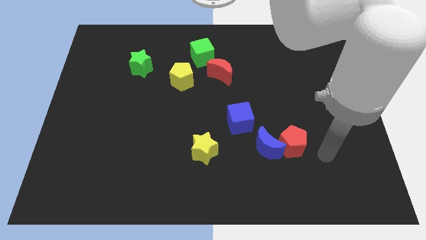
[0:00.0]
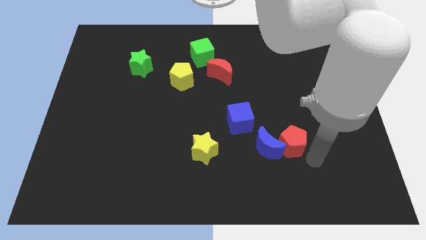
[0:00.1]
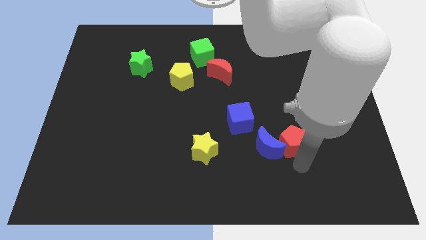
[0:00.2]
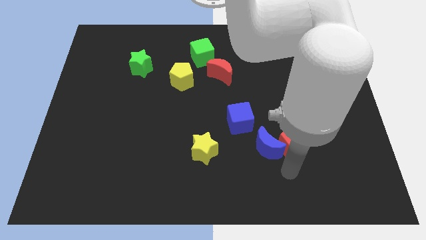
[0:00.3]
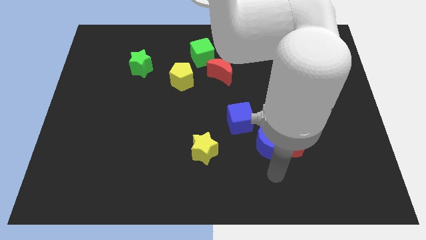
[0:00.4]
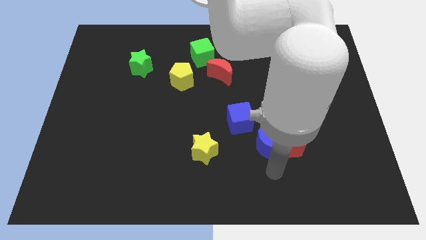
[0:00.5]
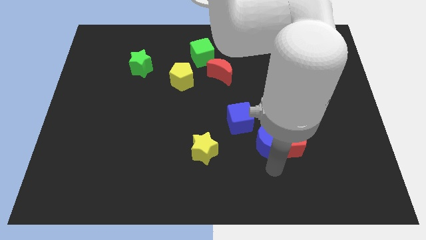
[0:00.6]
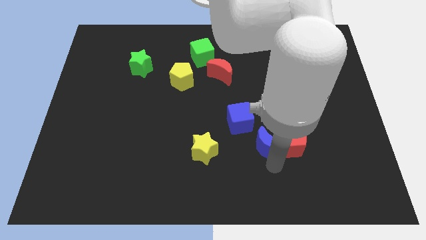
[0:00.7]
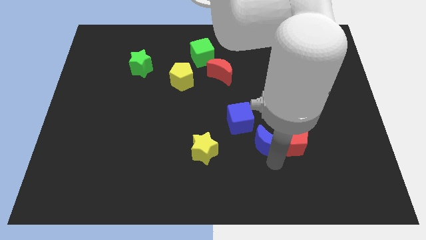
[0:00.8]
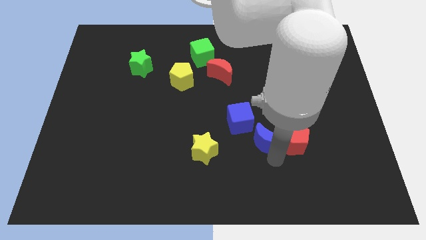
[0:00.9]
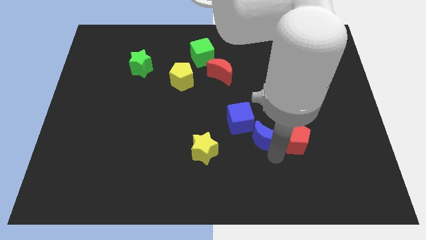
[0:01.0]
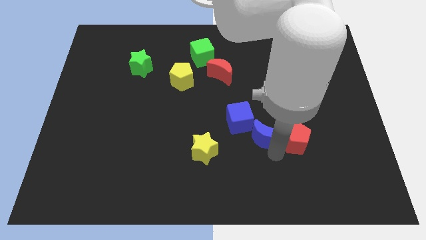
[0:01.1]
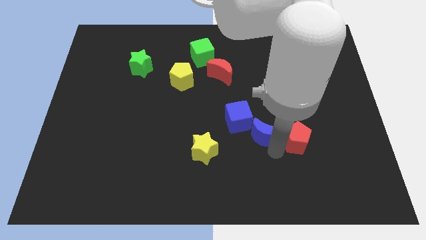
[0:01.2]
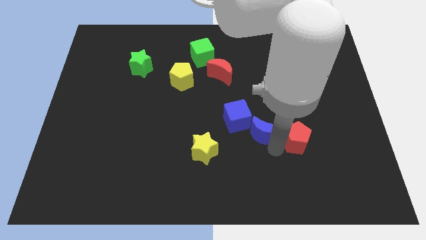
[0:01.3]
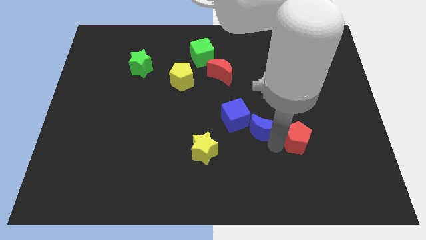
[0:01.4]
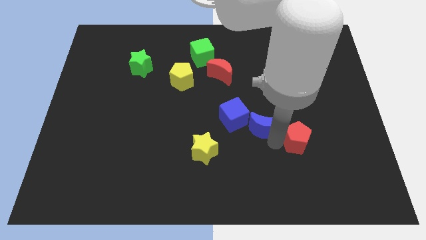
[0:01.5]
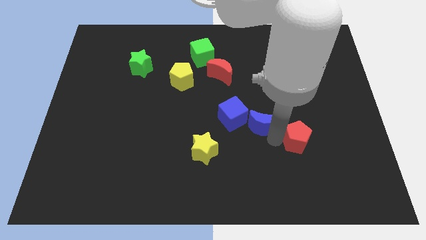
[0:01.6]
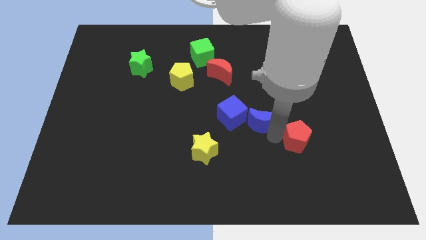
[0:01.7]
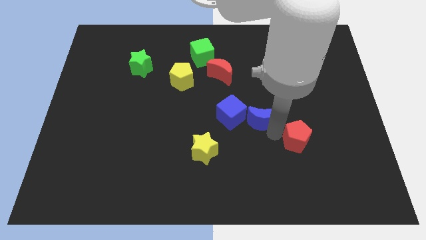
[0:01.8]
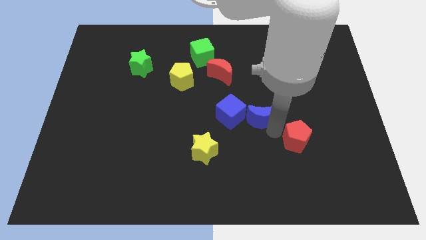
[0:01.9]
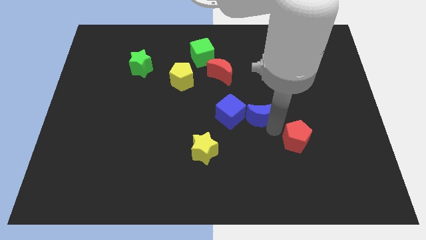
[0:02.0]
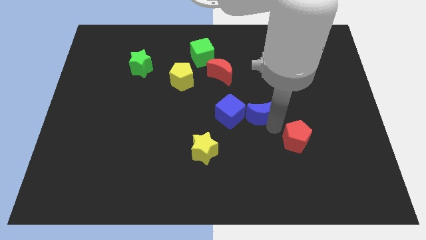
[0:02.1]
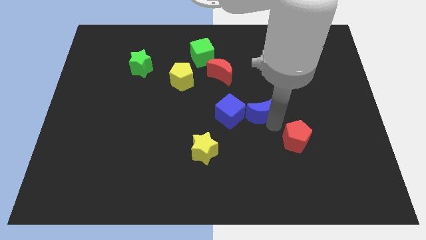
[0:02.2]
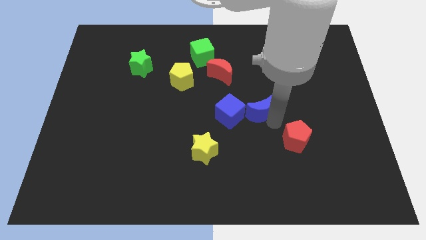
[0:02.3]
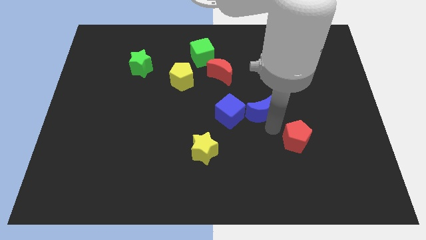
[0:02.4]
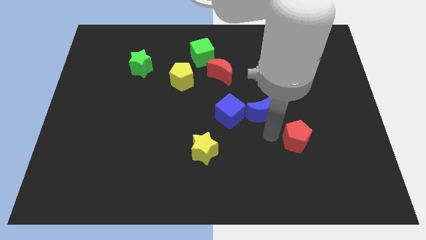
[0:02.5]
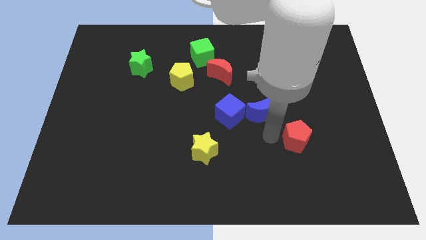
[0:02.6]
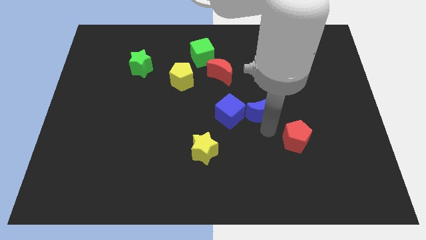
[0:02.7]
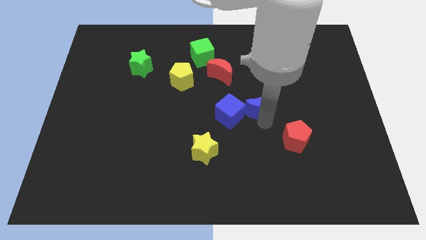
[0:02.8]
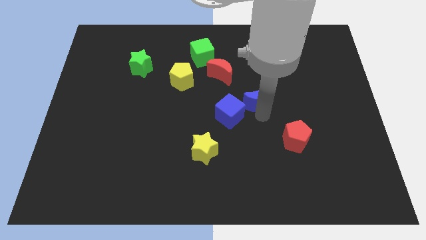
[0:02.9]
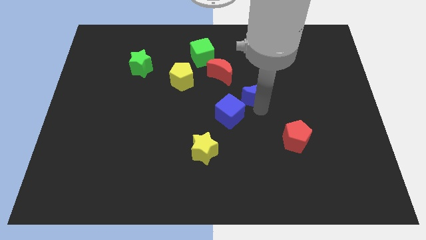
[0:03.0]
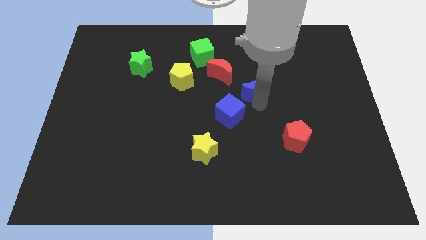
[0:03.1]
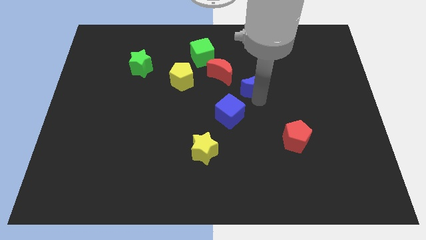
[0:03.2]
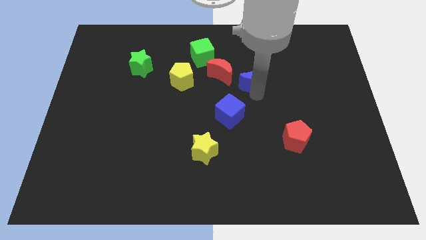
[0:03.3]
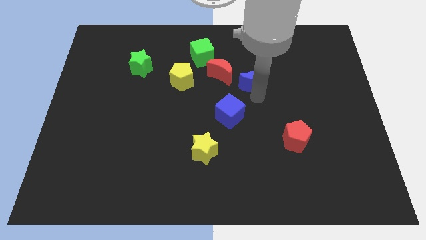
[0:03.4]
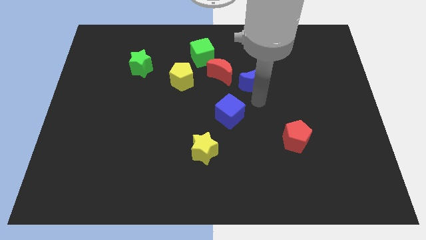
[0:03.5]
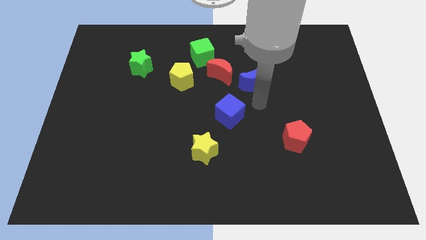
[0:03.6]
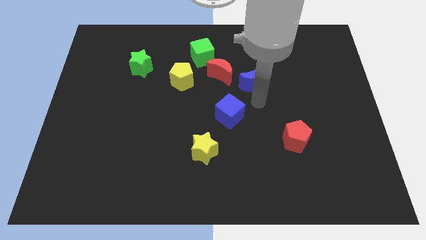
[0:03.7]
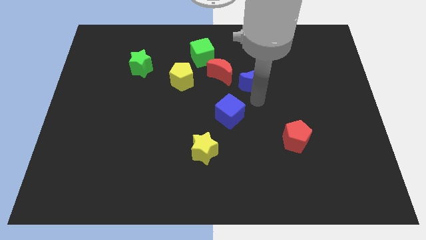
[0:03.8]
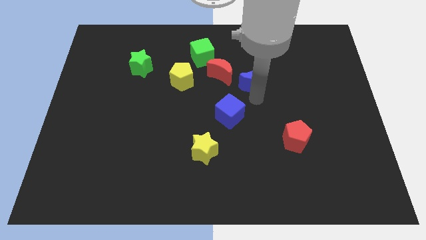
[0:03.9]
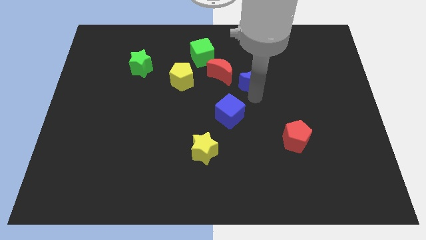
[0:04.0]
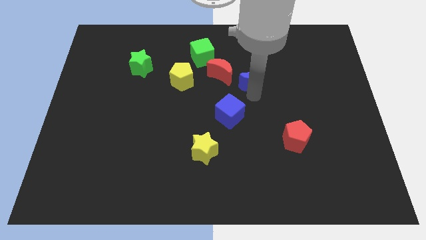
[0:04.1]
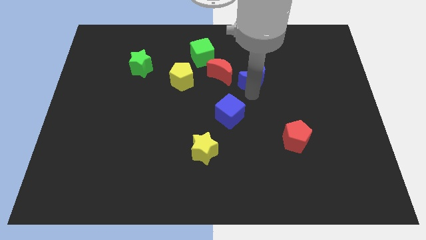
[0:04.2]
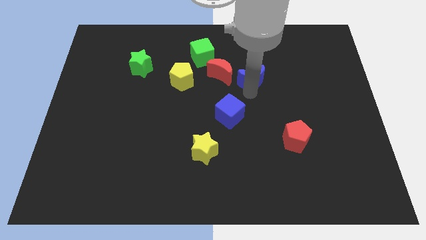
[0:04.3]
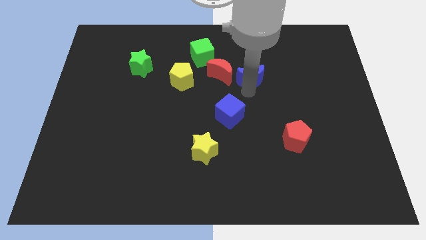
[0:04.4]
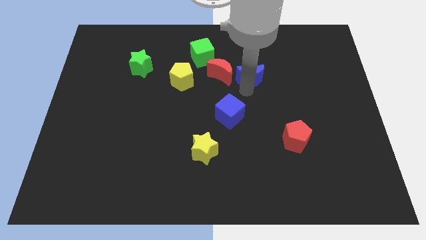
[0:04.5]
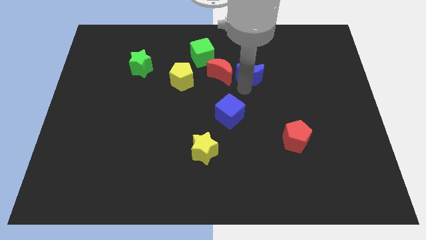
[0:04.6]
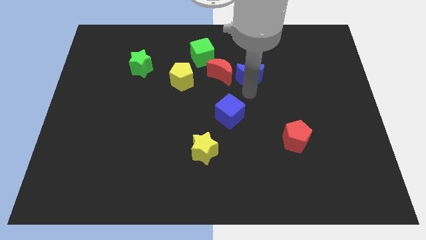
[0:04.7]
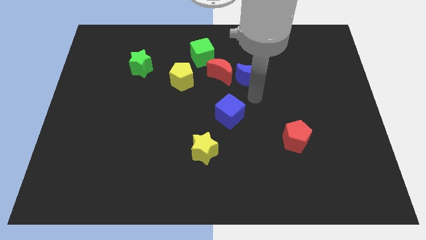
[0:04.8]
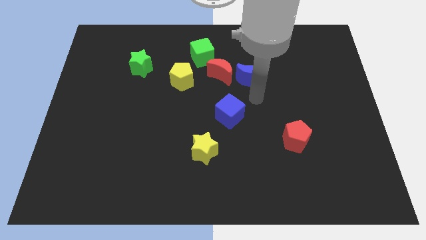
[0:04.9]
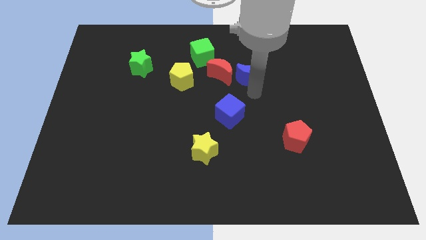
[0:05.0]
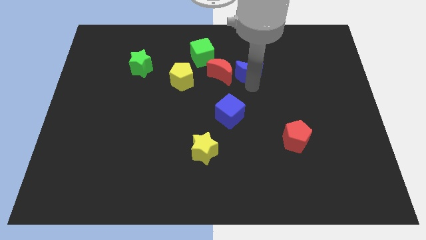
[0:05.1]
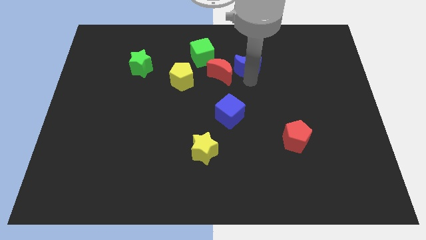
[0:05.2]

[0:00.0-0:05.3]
move the blue moon to the right side of the green cube

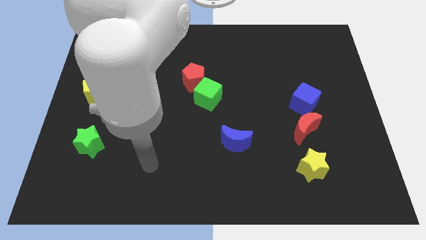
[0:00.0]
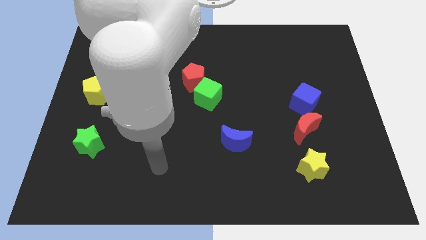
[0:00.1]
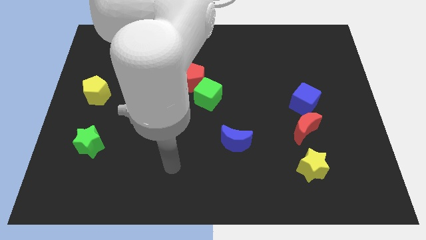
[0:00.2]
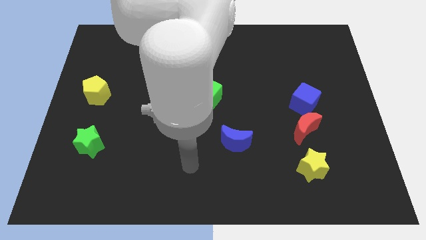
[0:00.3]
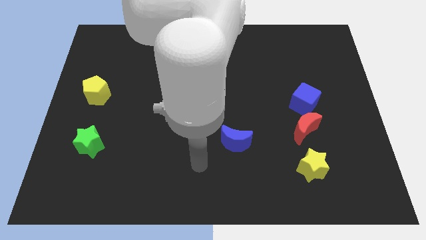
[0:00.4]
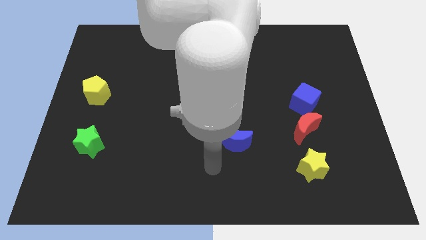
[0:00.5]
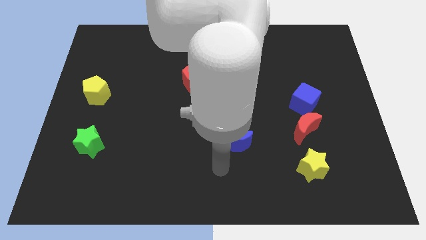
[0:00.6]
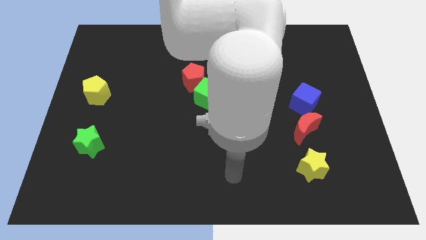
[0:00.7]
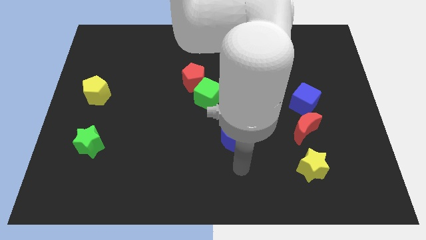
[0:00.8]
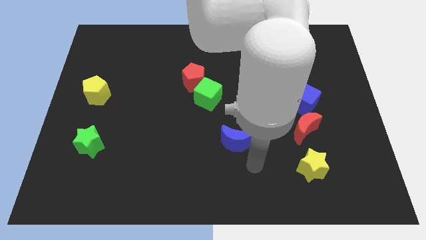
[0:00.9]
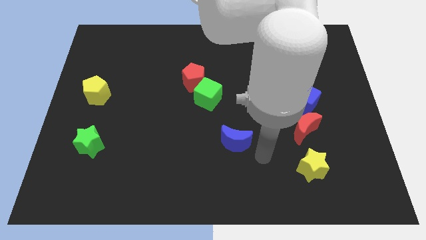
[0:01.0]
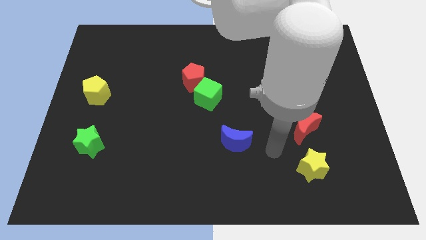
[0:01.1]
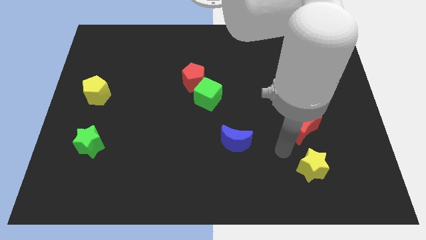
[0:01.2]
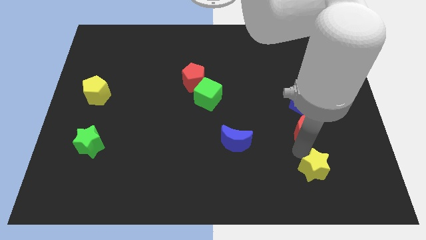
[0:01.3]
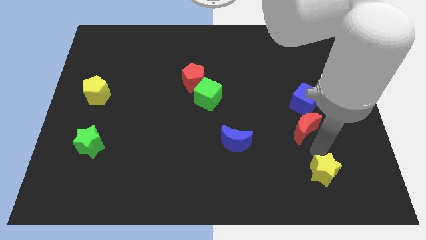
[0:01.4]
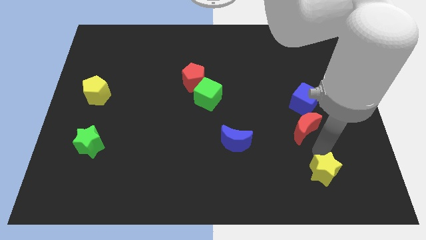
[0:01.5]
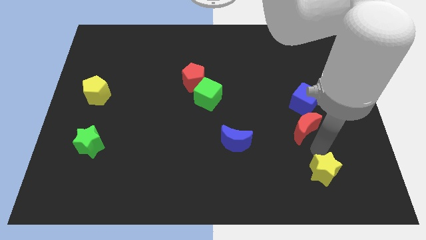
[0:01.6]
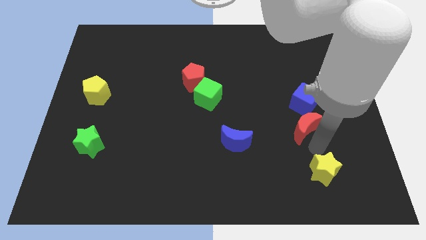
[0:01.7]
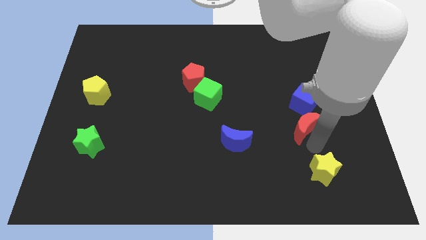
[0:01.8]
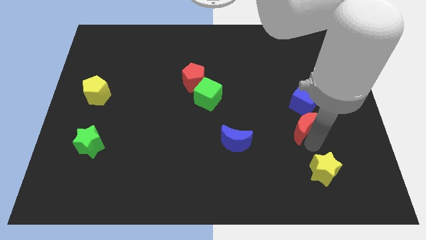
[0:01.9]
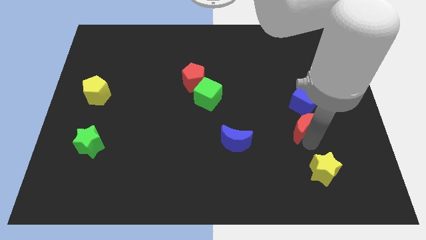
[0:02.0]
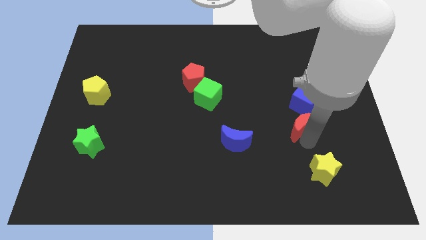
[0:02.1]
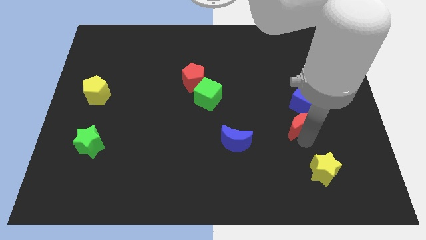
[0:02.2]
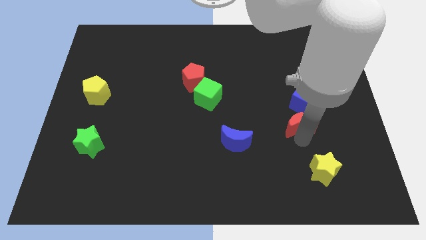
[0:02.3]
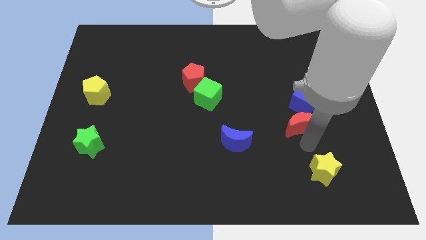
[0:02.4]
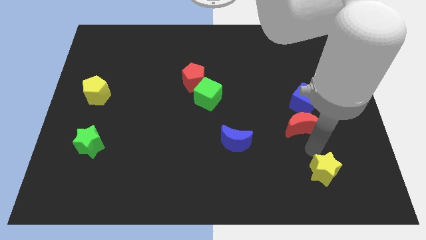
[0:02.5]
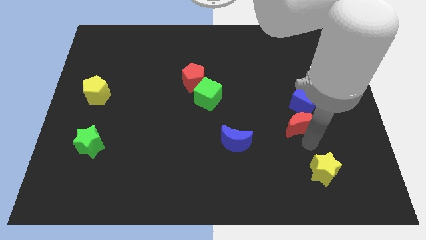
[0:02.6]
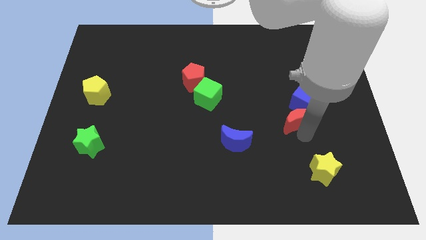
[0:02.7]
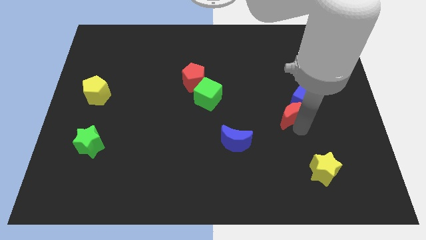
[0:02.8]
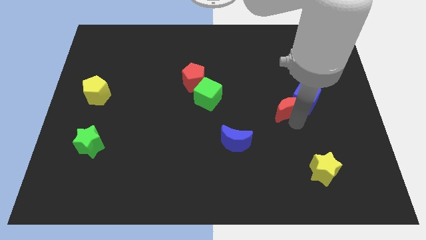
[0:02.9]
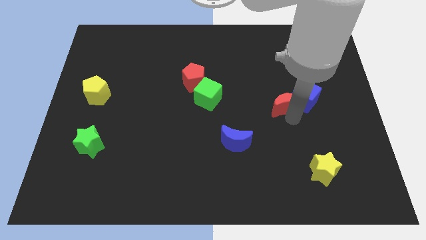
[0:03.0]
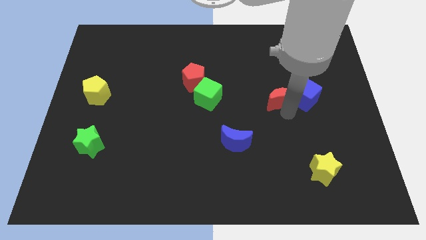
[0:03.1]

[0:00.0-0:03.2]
put the red moon diagonally up and to the left of the blue cube
